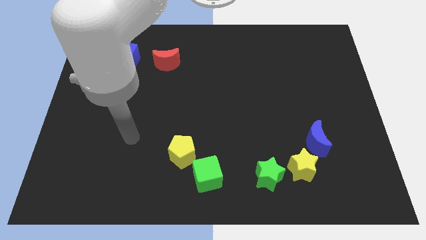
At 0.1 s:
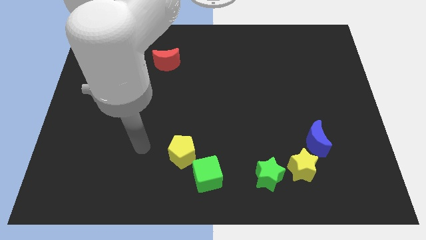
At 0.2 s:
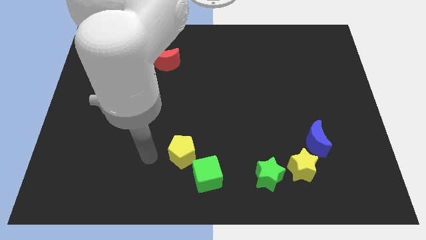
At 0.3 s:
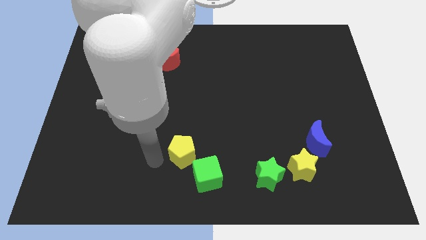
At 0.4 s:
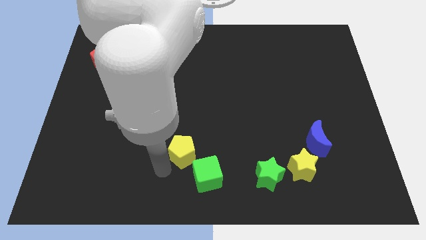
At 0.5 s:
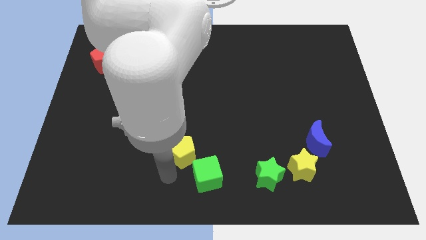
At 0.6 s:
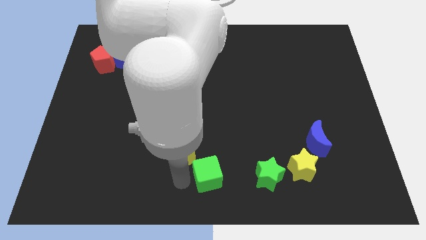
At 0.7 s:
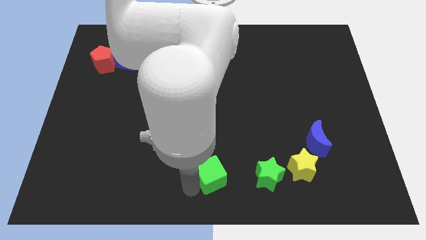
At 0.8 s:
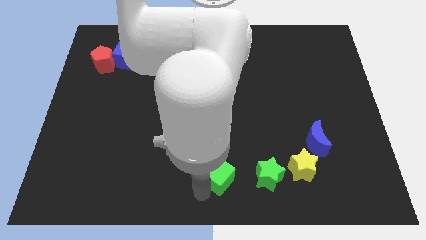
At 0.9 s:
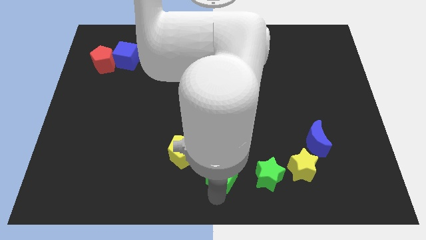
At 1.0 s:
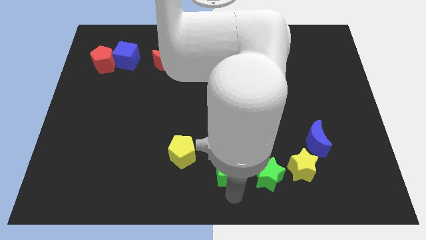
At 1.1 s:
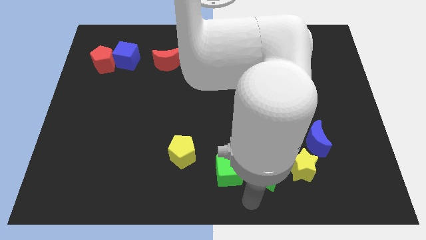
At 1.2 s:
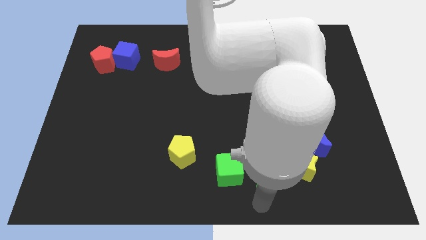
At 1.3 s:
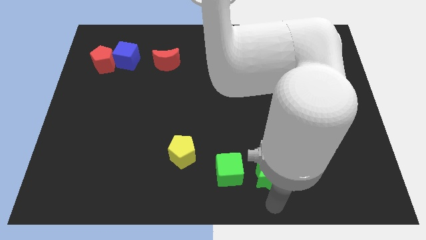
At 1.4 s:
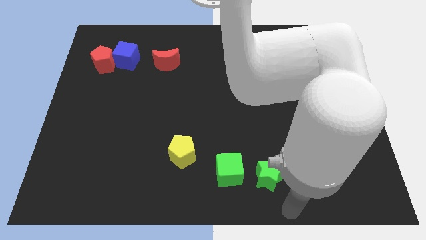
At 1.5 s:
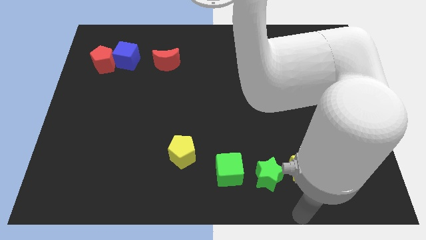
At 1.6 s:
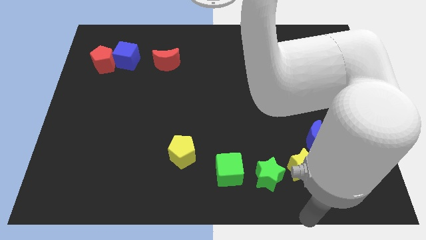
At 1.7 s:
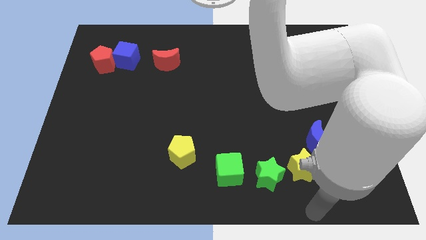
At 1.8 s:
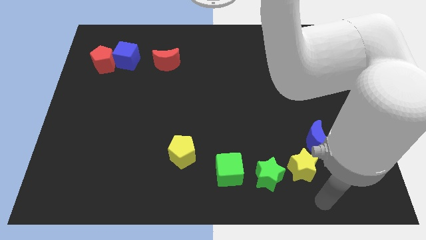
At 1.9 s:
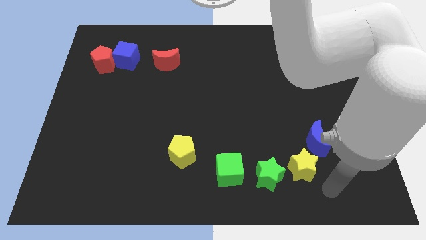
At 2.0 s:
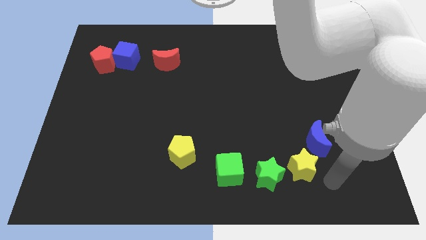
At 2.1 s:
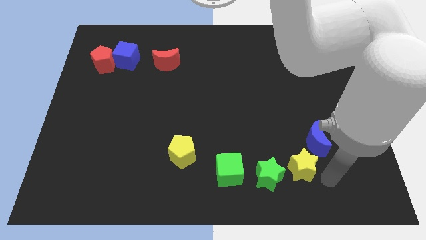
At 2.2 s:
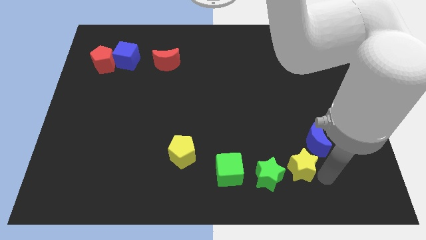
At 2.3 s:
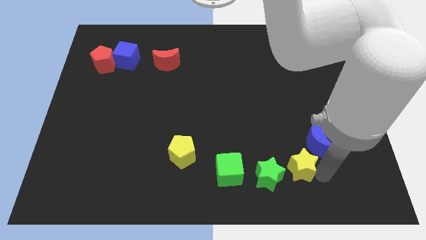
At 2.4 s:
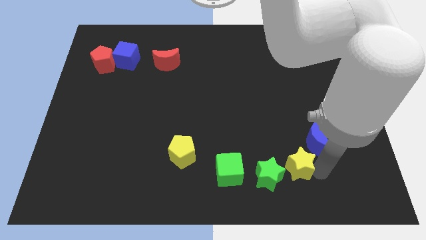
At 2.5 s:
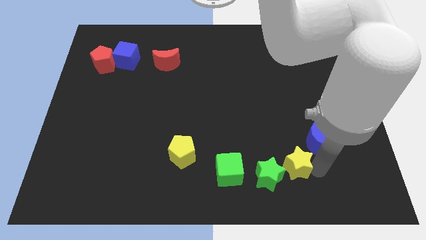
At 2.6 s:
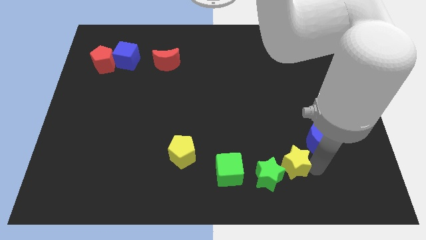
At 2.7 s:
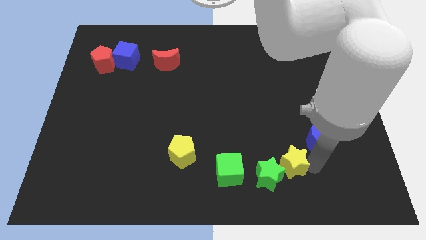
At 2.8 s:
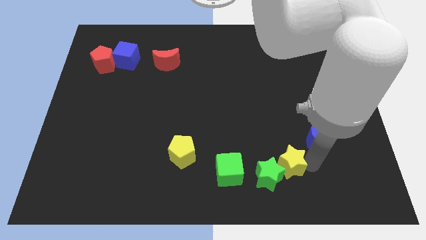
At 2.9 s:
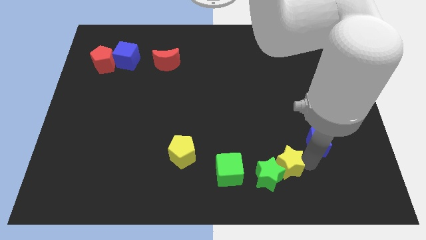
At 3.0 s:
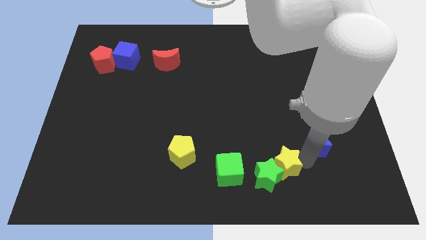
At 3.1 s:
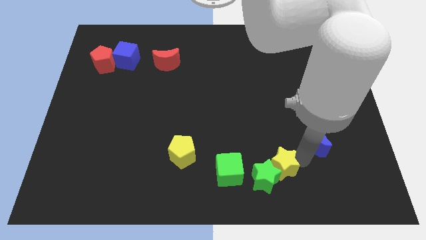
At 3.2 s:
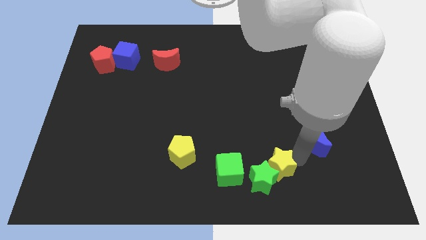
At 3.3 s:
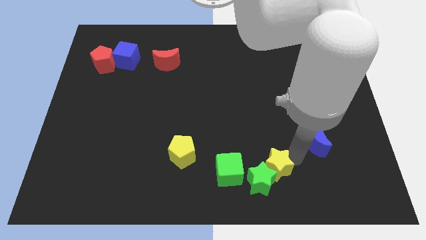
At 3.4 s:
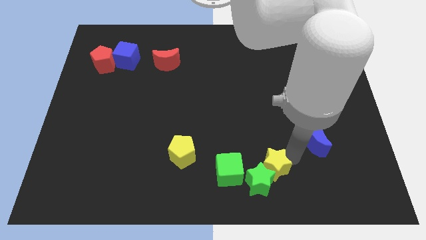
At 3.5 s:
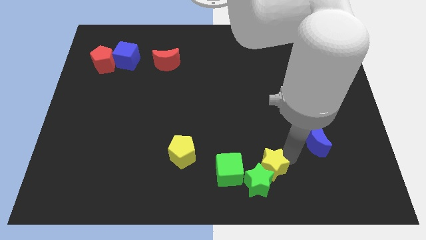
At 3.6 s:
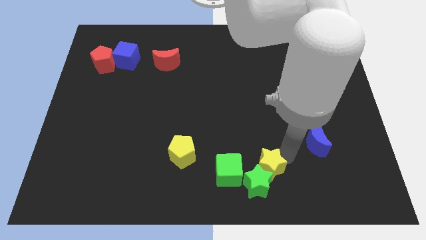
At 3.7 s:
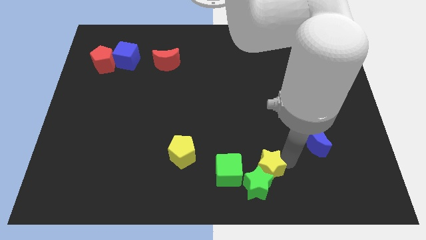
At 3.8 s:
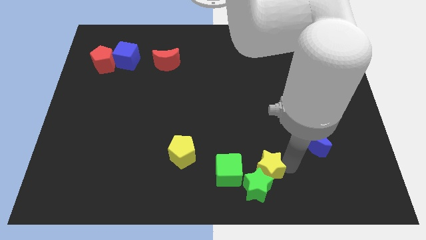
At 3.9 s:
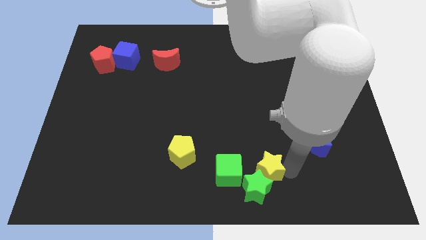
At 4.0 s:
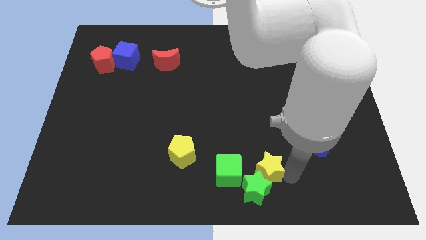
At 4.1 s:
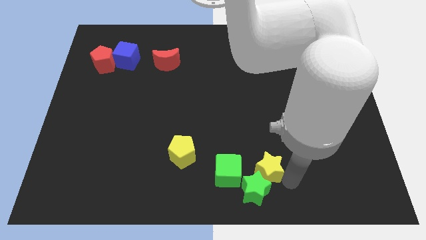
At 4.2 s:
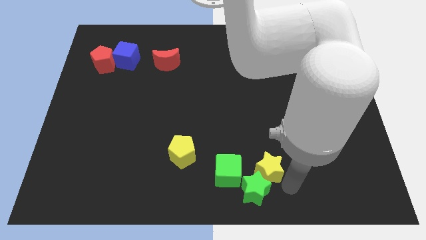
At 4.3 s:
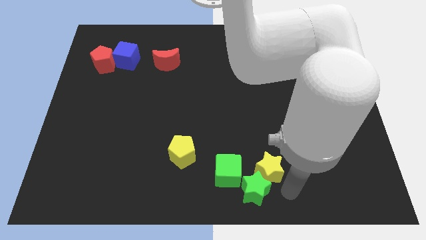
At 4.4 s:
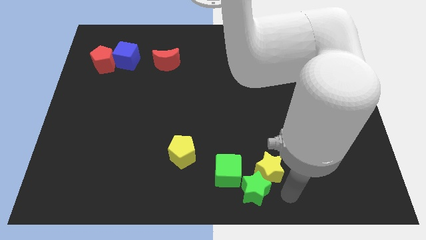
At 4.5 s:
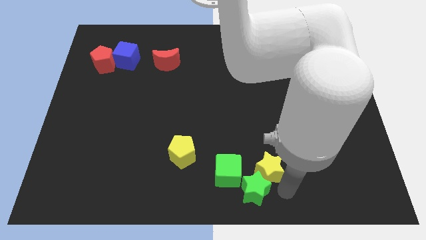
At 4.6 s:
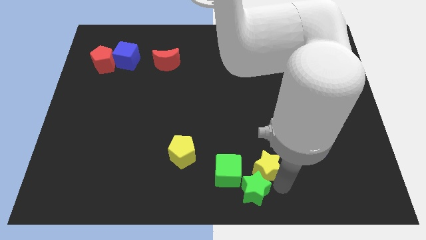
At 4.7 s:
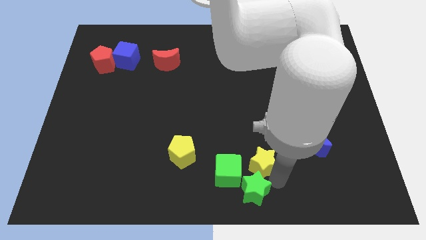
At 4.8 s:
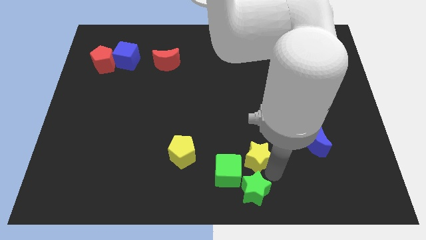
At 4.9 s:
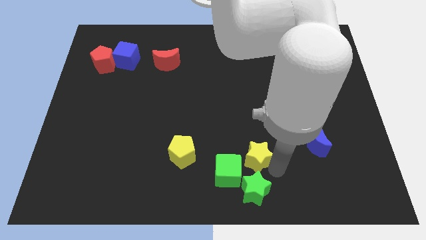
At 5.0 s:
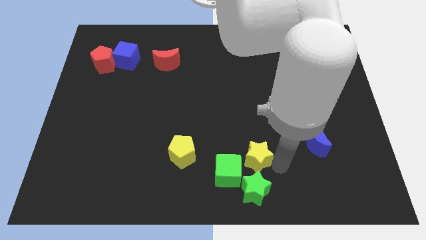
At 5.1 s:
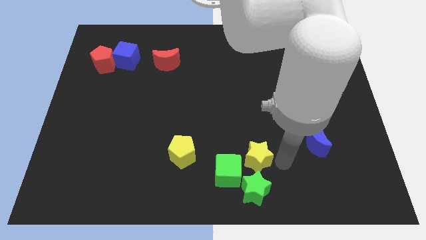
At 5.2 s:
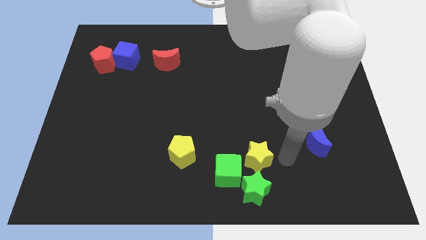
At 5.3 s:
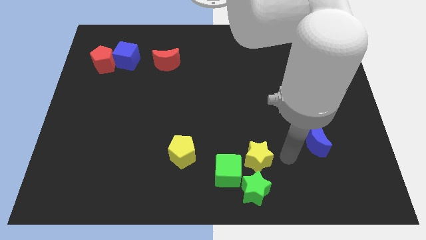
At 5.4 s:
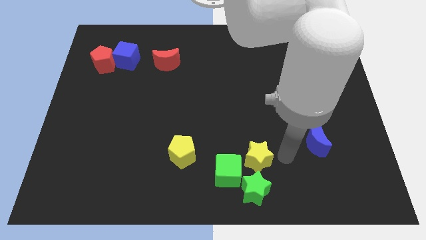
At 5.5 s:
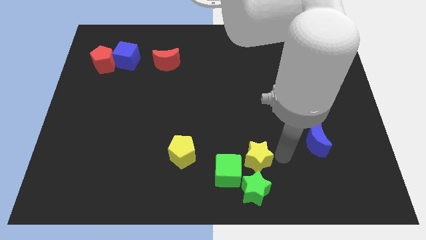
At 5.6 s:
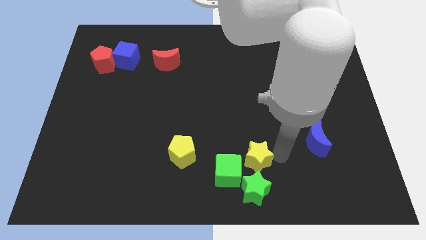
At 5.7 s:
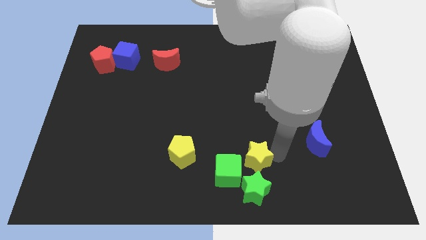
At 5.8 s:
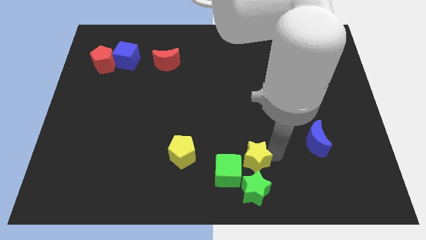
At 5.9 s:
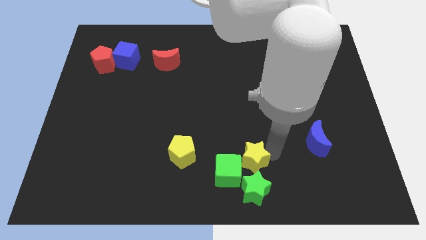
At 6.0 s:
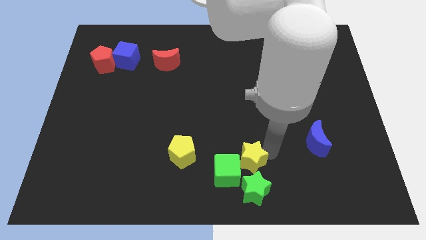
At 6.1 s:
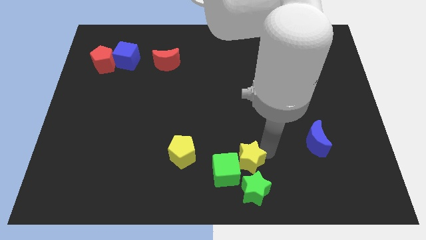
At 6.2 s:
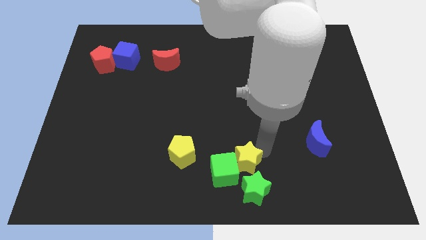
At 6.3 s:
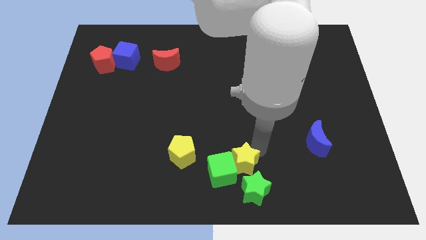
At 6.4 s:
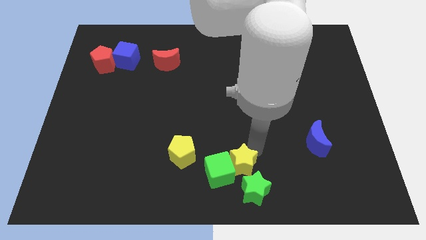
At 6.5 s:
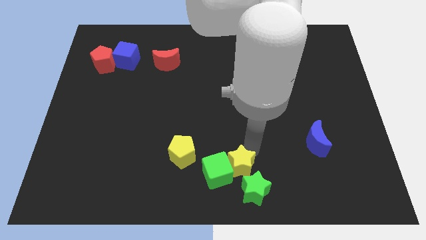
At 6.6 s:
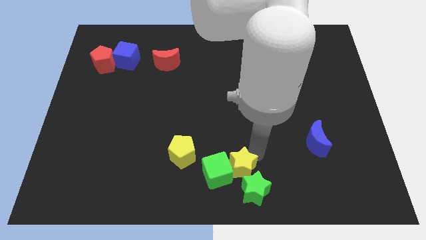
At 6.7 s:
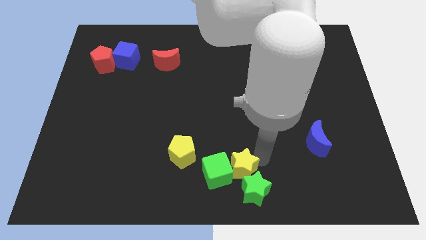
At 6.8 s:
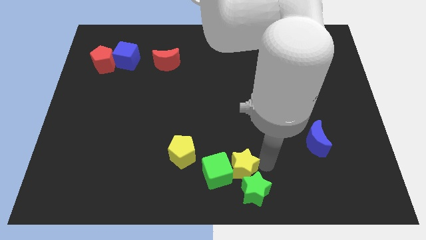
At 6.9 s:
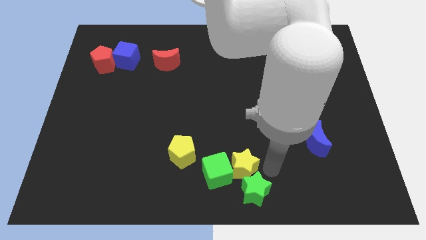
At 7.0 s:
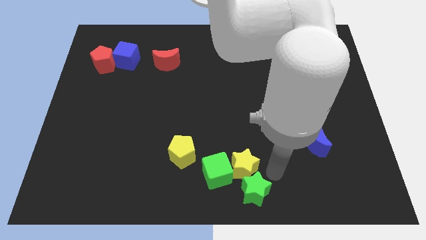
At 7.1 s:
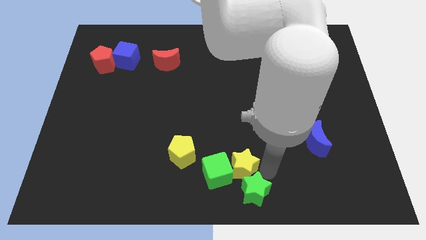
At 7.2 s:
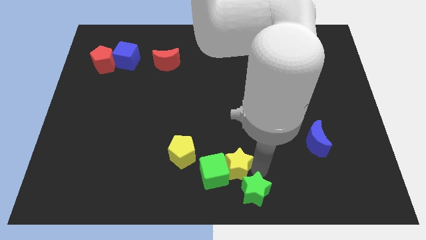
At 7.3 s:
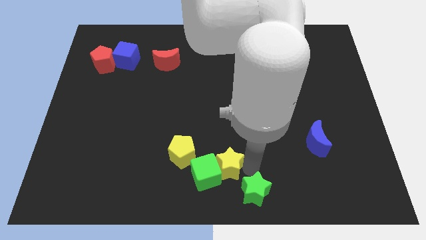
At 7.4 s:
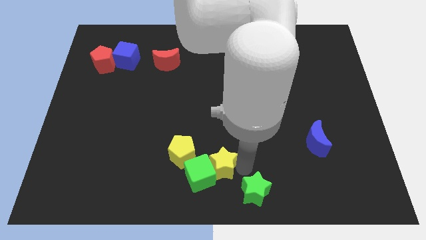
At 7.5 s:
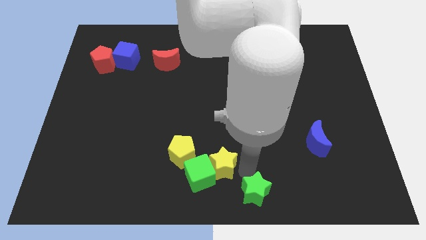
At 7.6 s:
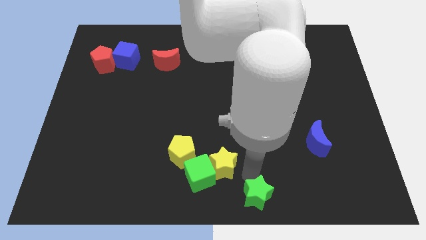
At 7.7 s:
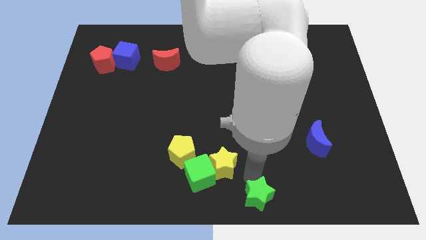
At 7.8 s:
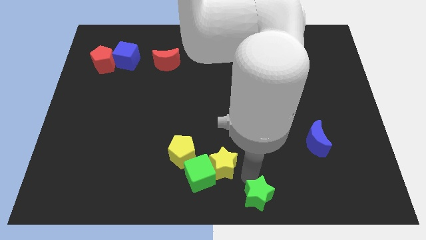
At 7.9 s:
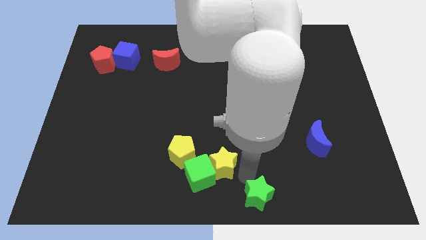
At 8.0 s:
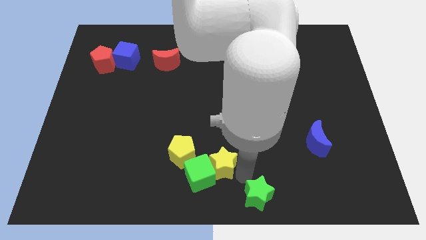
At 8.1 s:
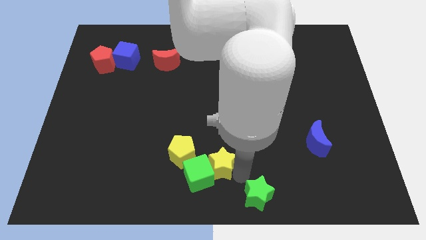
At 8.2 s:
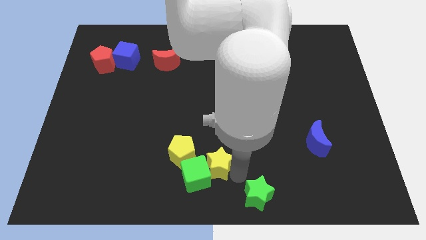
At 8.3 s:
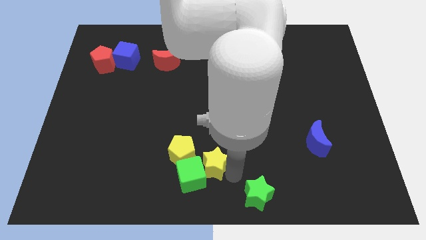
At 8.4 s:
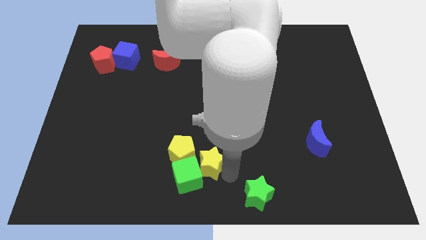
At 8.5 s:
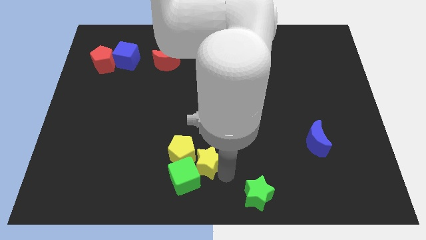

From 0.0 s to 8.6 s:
put the yellow star next to the yellow pentagon
